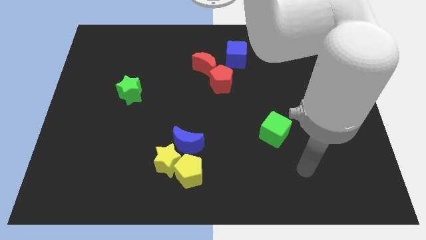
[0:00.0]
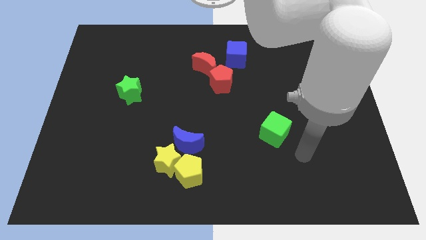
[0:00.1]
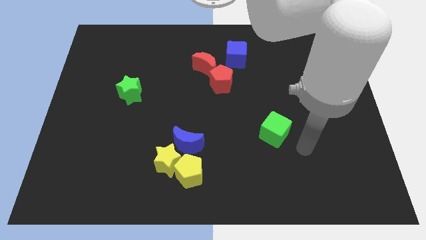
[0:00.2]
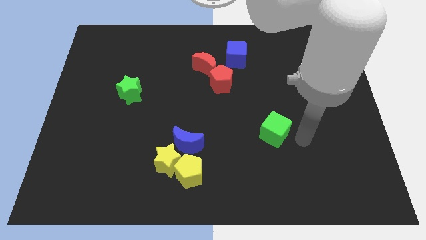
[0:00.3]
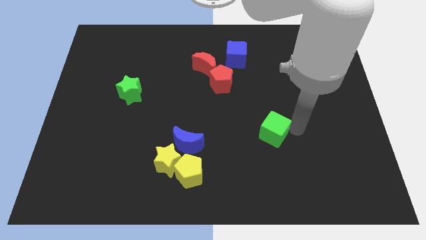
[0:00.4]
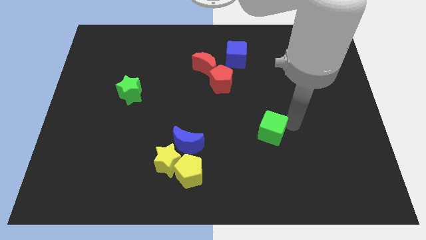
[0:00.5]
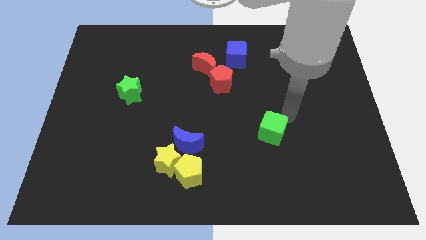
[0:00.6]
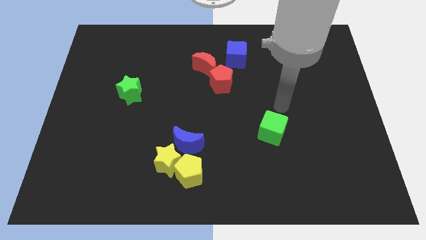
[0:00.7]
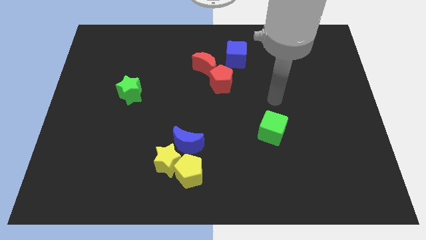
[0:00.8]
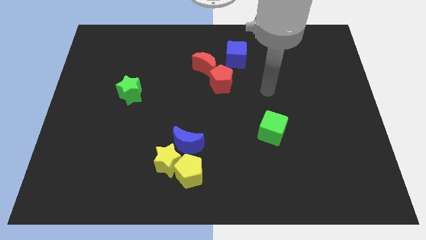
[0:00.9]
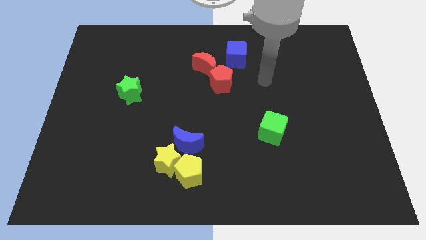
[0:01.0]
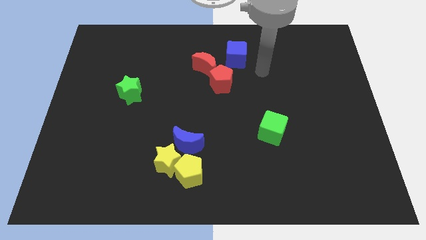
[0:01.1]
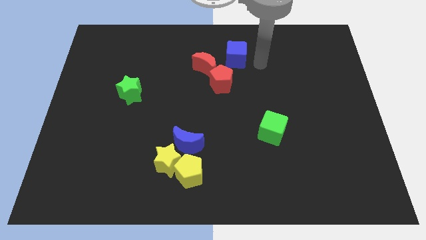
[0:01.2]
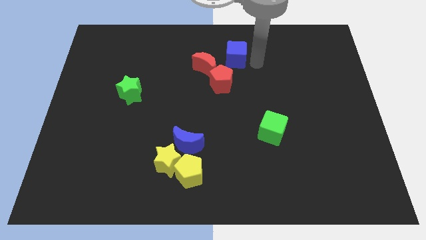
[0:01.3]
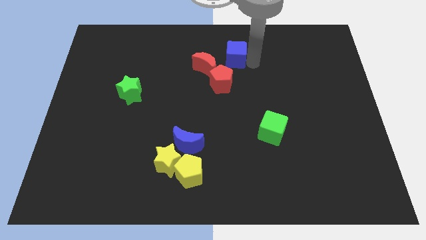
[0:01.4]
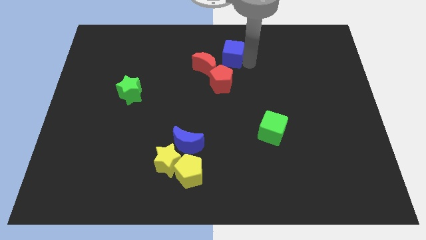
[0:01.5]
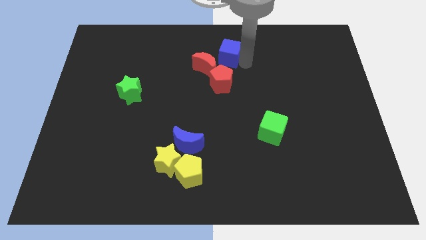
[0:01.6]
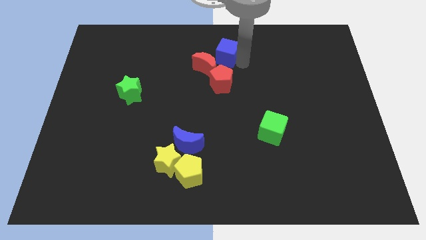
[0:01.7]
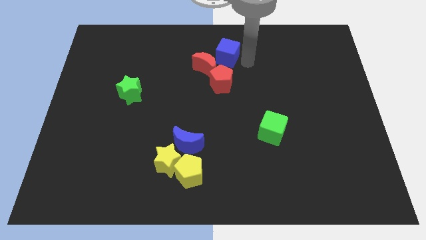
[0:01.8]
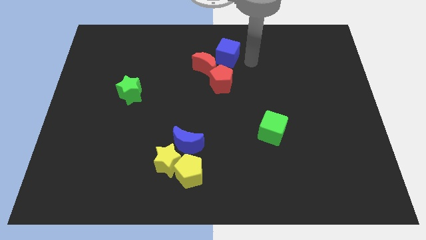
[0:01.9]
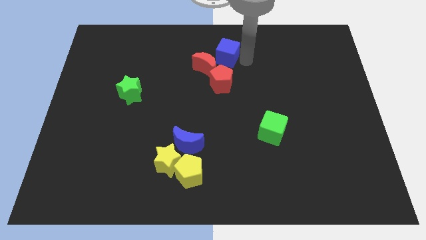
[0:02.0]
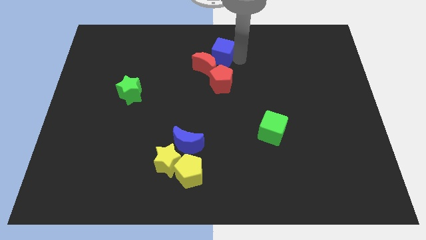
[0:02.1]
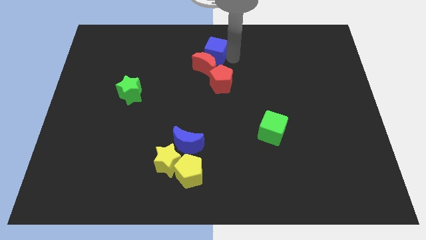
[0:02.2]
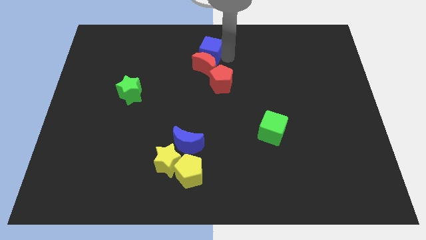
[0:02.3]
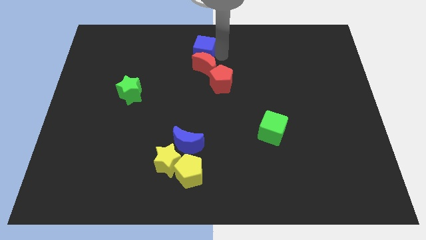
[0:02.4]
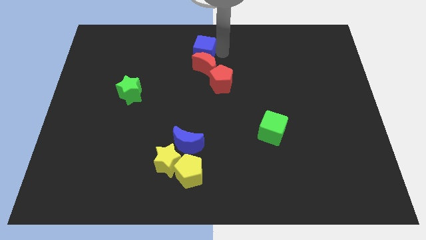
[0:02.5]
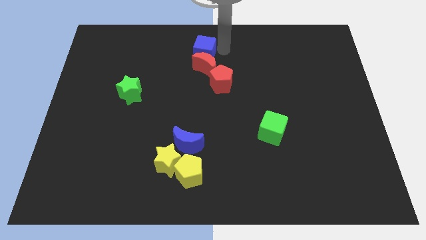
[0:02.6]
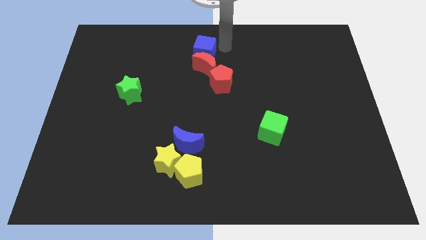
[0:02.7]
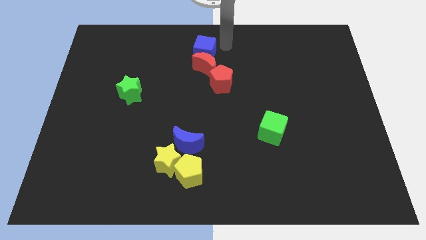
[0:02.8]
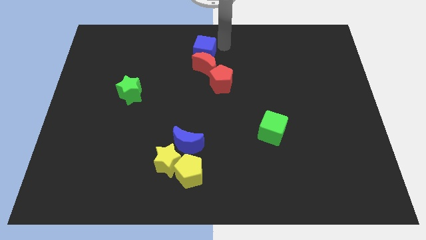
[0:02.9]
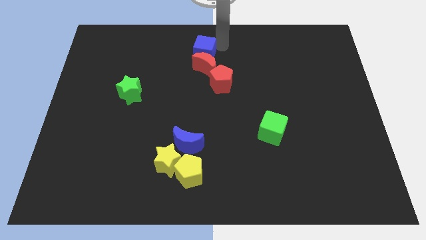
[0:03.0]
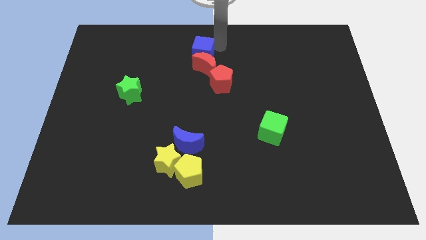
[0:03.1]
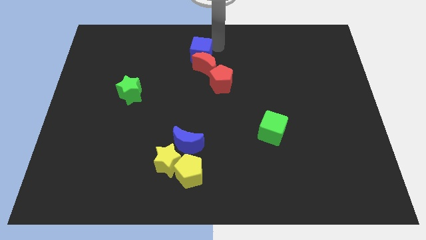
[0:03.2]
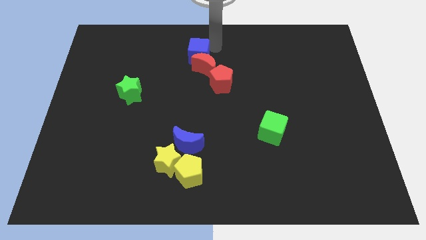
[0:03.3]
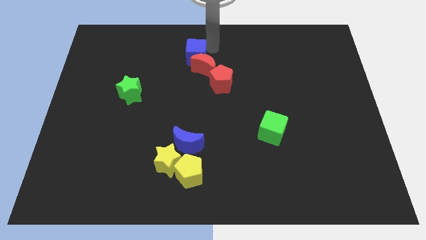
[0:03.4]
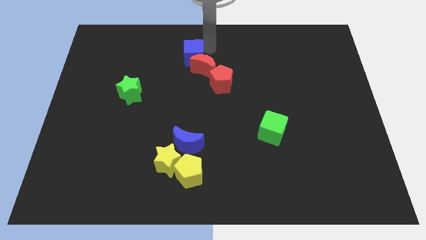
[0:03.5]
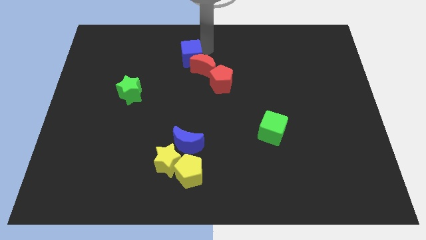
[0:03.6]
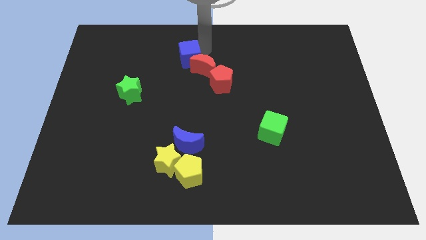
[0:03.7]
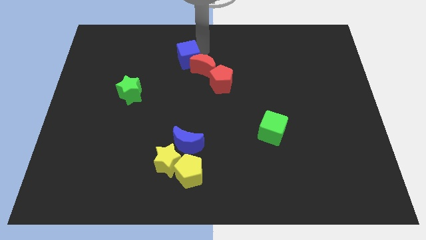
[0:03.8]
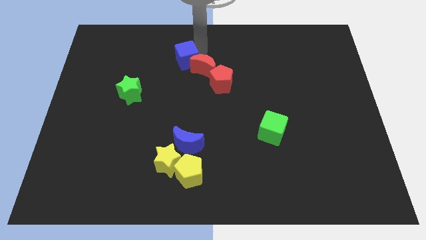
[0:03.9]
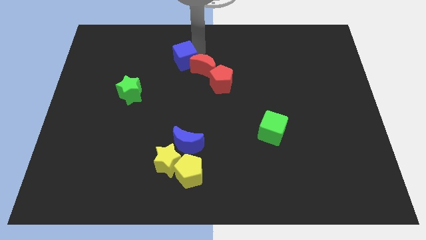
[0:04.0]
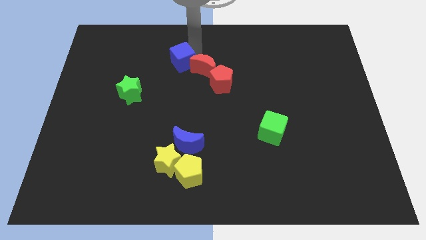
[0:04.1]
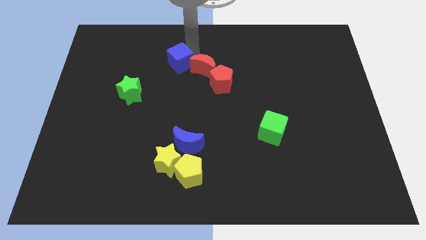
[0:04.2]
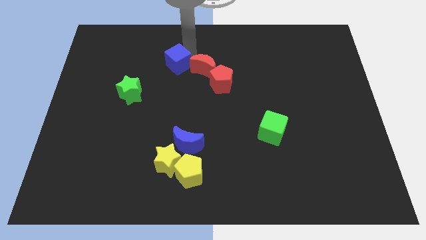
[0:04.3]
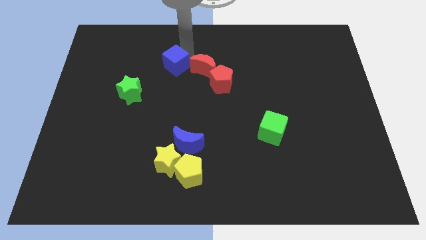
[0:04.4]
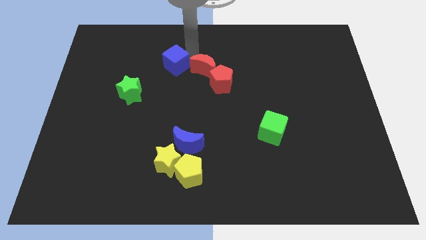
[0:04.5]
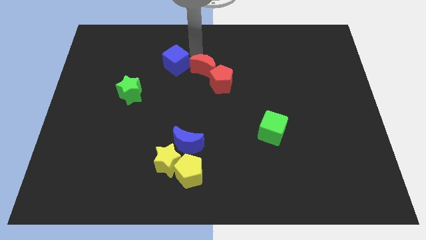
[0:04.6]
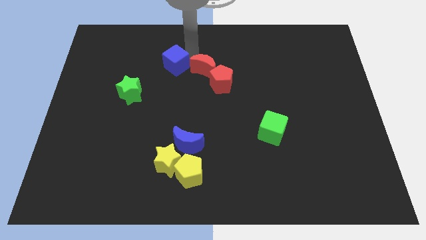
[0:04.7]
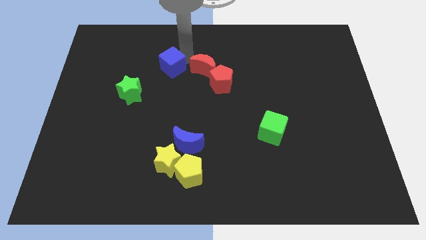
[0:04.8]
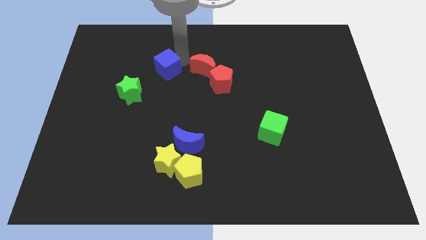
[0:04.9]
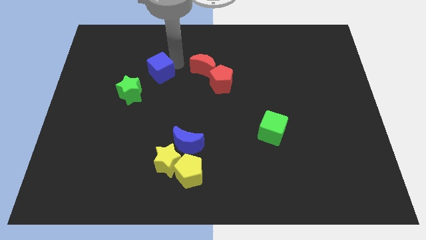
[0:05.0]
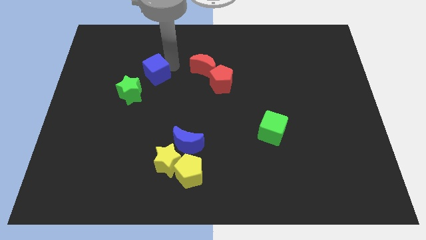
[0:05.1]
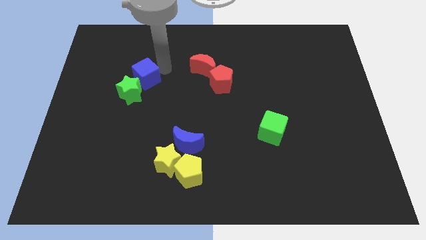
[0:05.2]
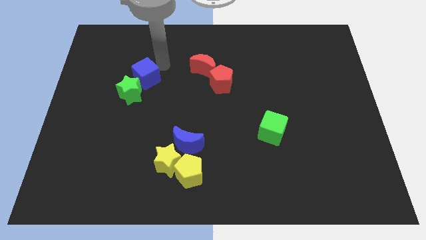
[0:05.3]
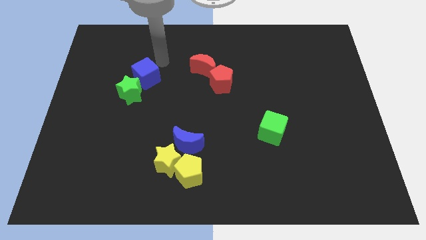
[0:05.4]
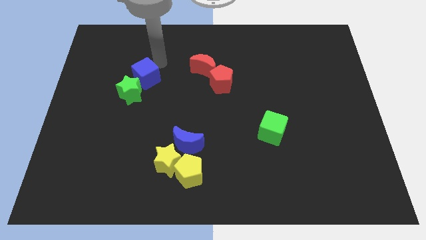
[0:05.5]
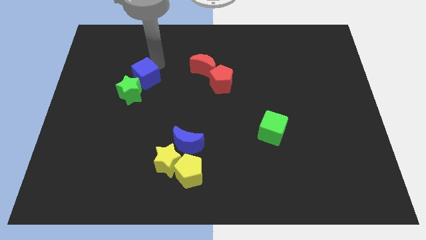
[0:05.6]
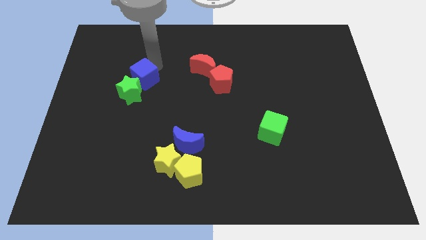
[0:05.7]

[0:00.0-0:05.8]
move the blue cube close to the green star
